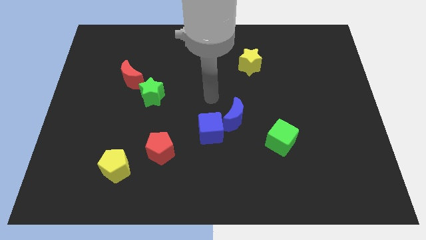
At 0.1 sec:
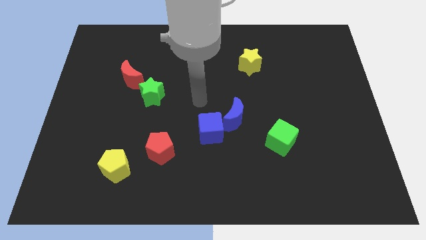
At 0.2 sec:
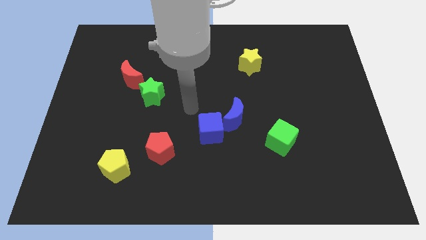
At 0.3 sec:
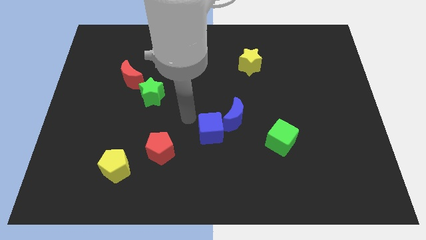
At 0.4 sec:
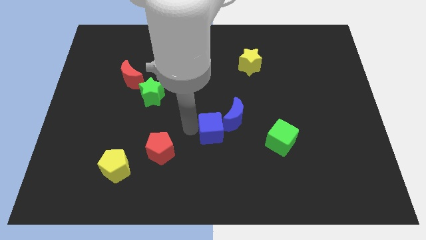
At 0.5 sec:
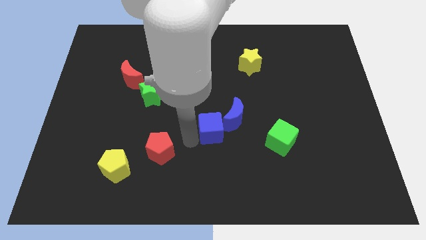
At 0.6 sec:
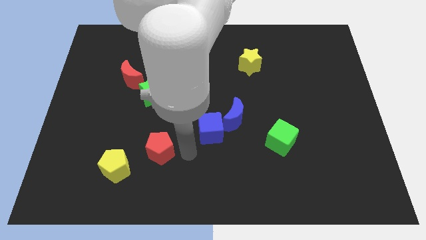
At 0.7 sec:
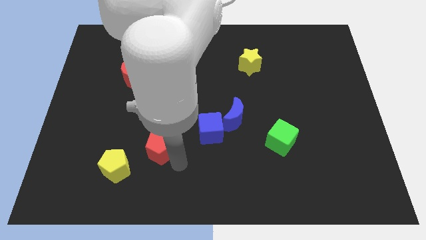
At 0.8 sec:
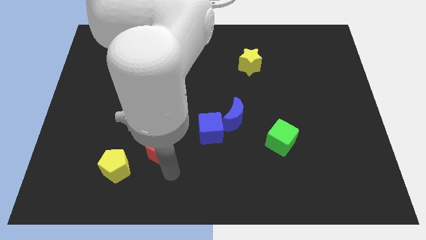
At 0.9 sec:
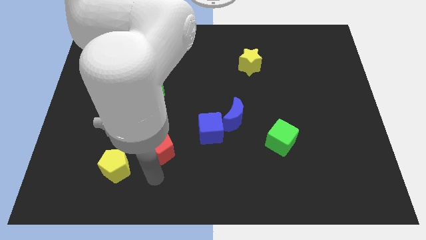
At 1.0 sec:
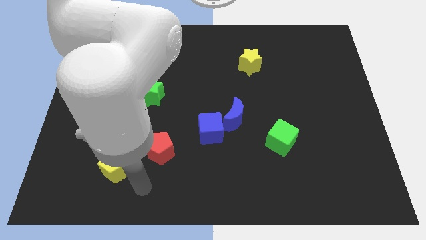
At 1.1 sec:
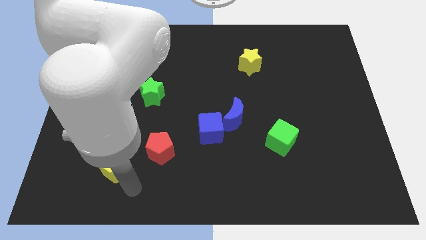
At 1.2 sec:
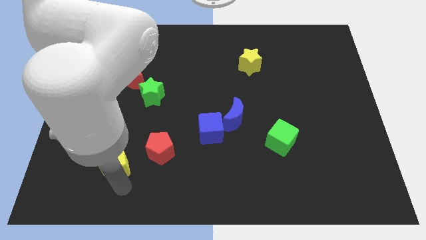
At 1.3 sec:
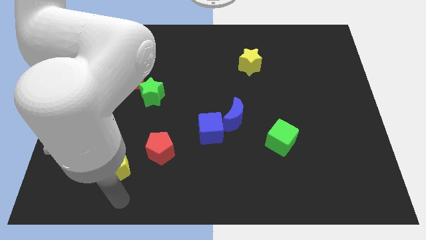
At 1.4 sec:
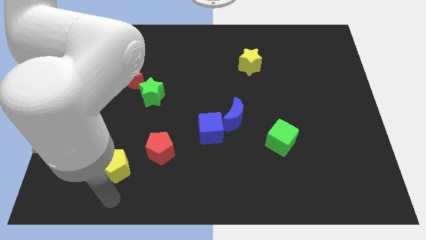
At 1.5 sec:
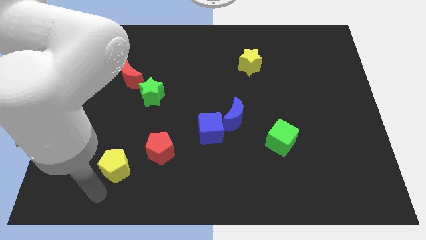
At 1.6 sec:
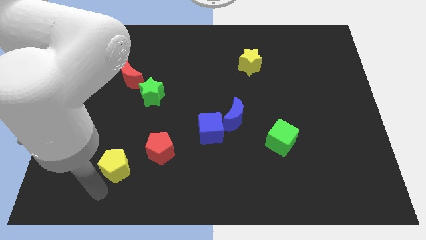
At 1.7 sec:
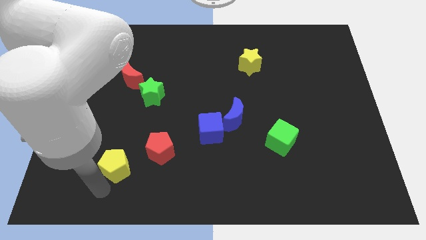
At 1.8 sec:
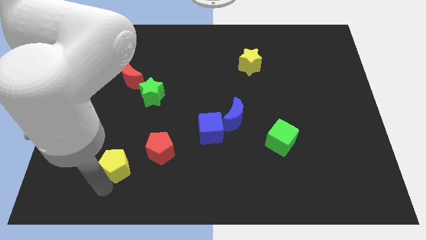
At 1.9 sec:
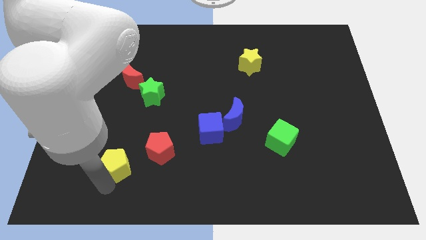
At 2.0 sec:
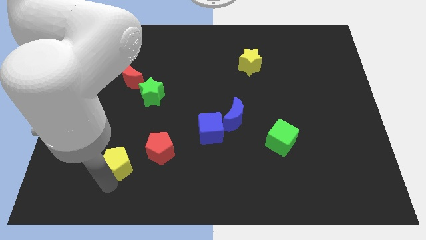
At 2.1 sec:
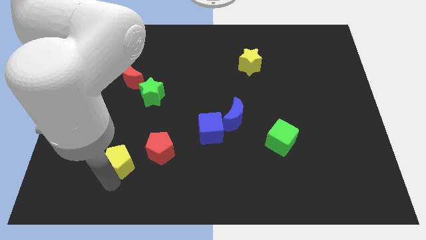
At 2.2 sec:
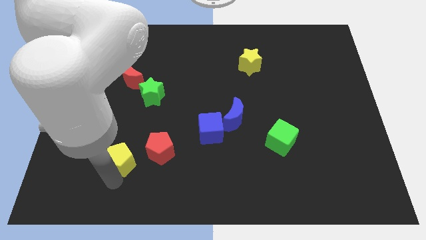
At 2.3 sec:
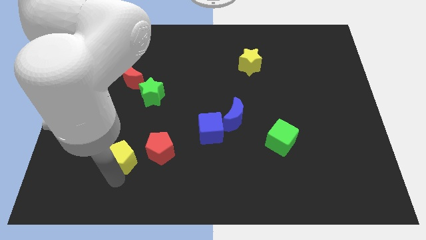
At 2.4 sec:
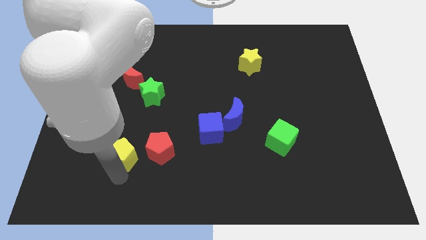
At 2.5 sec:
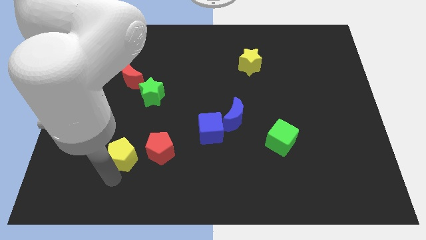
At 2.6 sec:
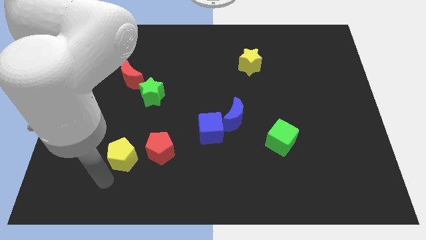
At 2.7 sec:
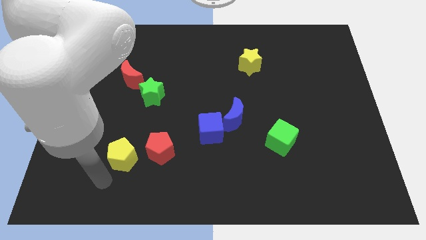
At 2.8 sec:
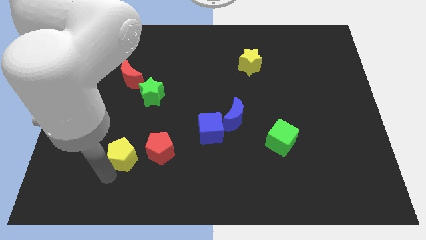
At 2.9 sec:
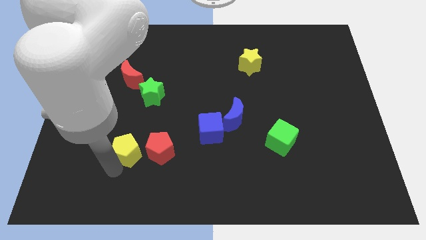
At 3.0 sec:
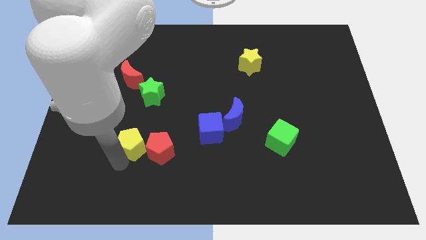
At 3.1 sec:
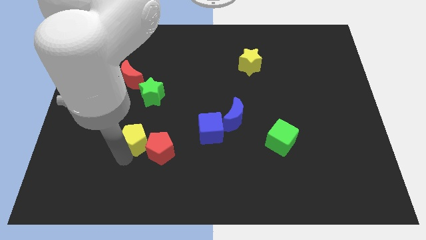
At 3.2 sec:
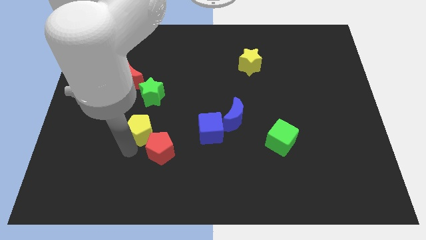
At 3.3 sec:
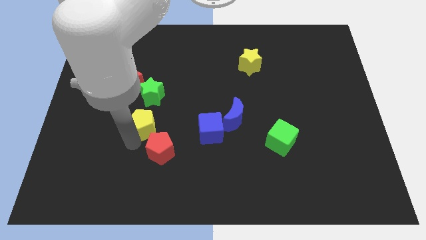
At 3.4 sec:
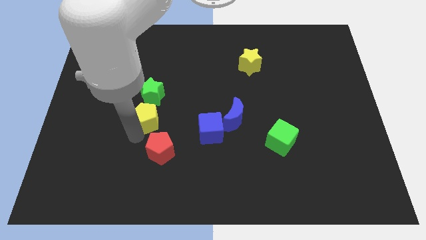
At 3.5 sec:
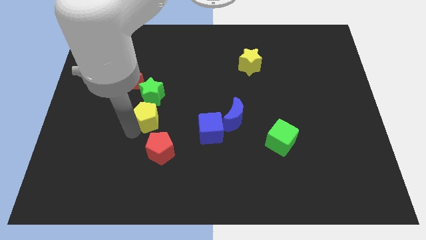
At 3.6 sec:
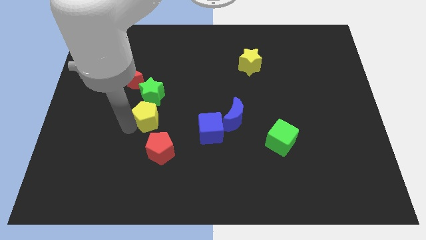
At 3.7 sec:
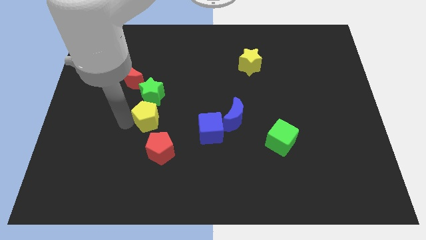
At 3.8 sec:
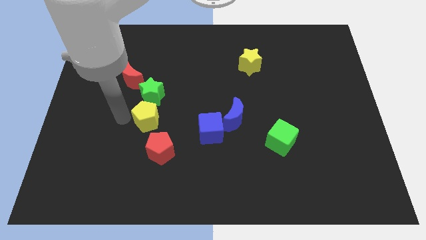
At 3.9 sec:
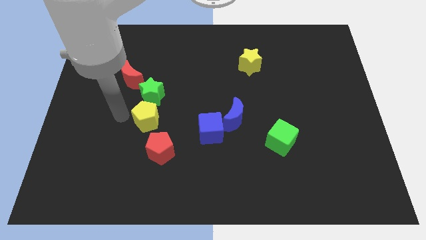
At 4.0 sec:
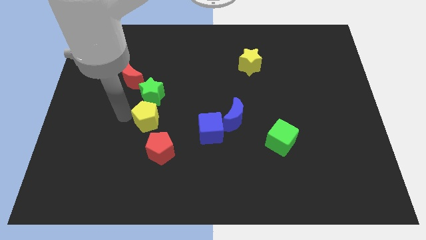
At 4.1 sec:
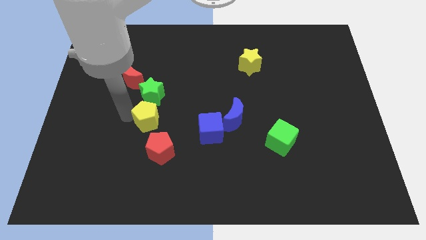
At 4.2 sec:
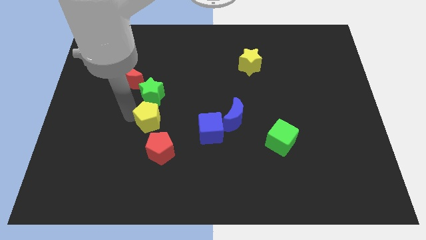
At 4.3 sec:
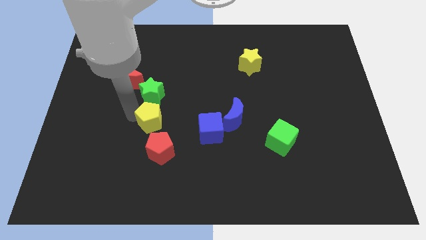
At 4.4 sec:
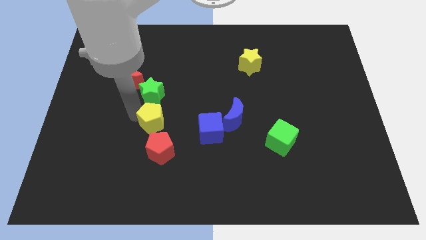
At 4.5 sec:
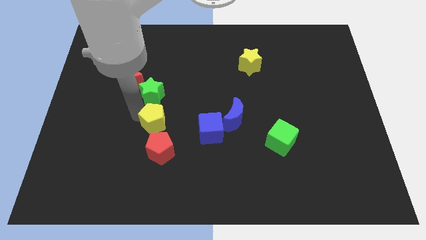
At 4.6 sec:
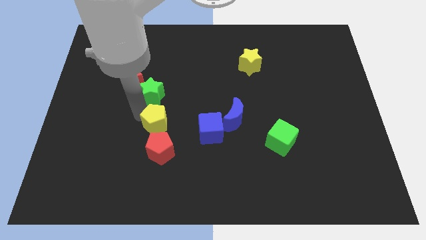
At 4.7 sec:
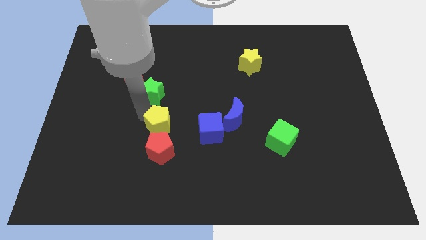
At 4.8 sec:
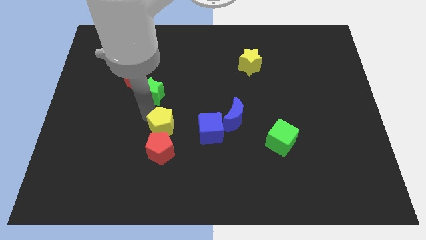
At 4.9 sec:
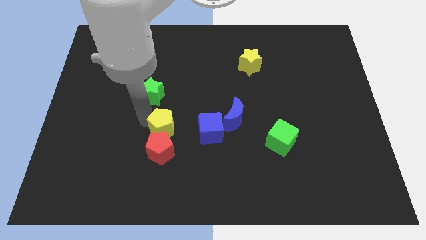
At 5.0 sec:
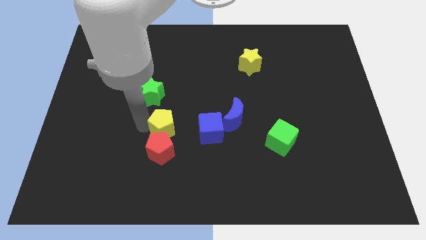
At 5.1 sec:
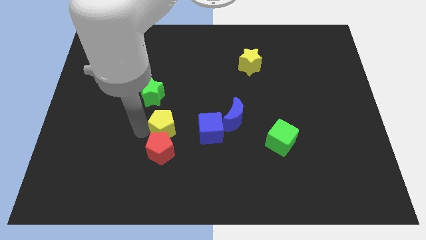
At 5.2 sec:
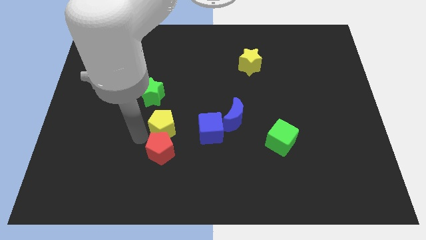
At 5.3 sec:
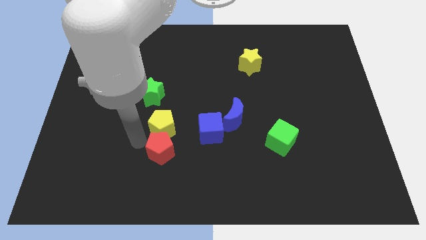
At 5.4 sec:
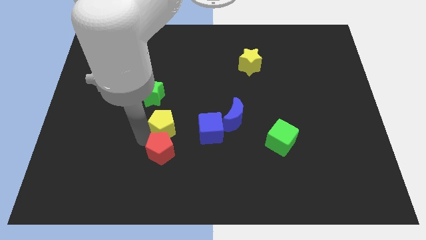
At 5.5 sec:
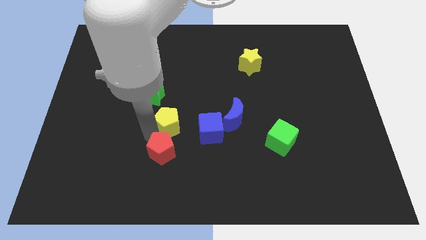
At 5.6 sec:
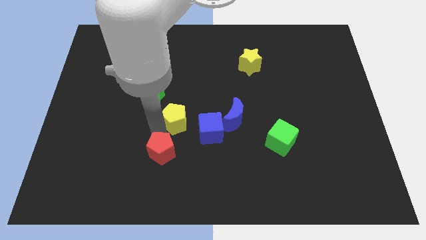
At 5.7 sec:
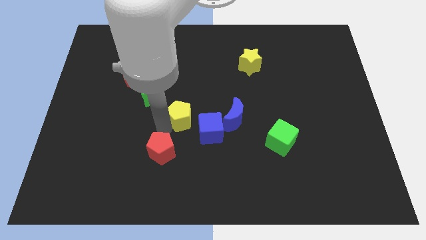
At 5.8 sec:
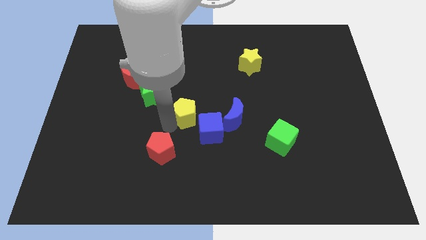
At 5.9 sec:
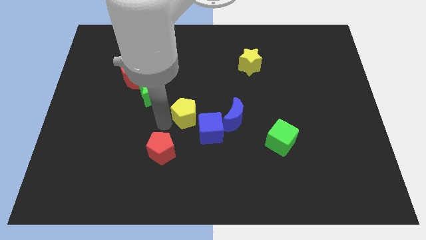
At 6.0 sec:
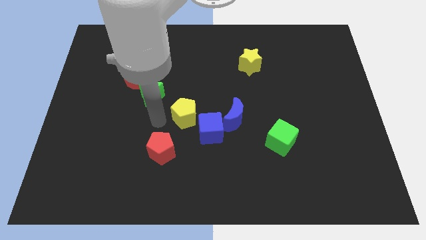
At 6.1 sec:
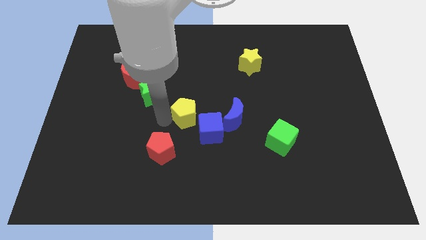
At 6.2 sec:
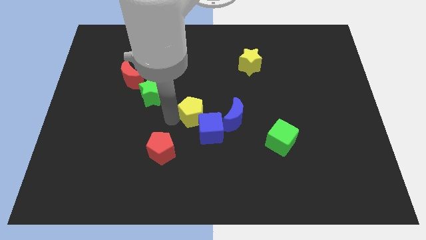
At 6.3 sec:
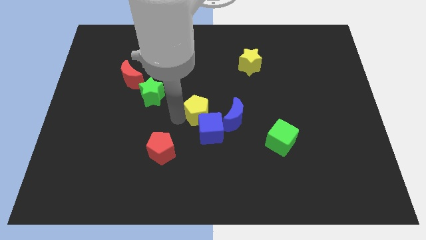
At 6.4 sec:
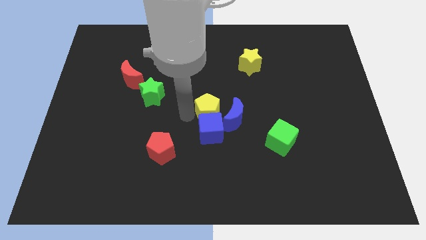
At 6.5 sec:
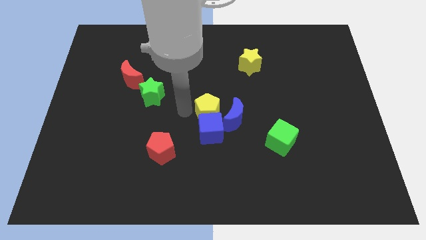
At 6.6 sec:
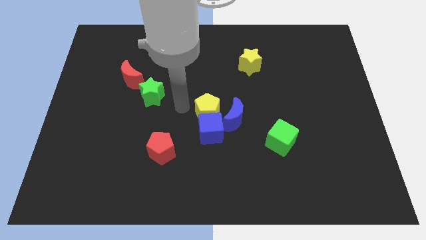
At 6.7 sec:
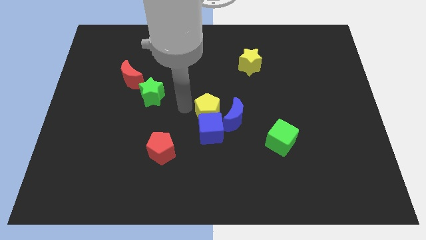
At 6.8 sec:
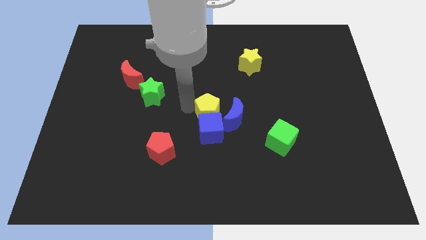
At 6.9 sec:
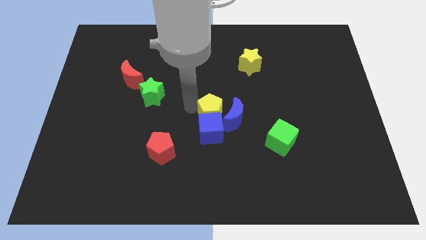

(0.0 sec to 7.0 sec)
move the yellow pentagon to the blue moon
